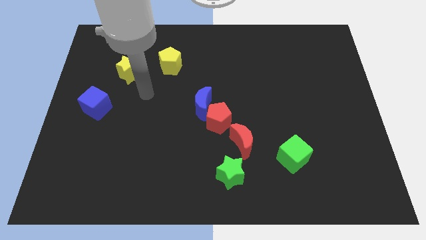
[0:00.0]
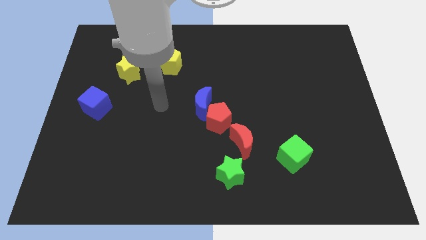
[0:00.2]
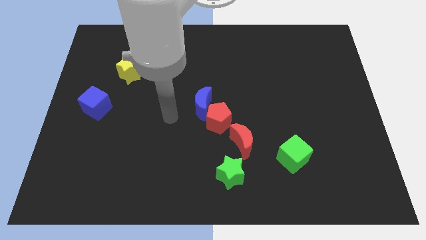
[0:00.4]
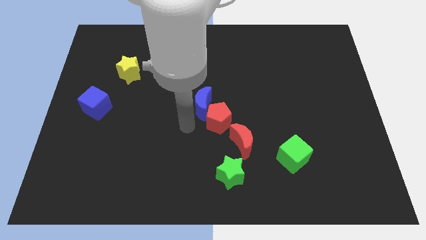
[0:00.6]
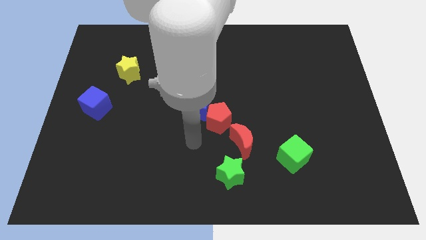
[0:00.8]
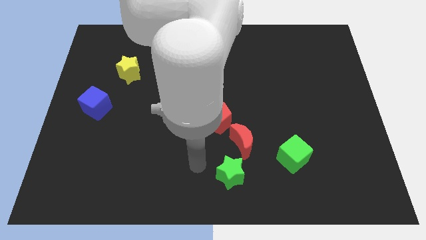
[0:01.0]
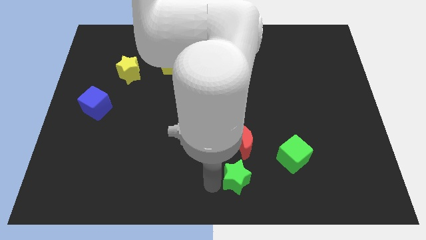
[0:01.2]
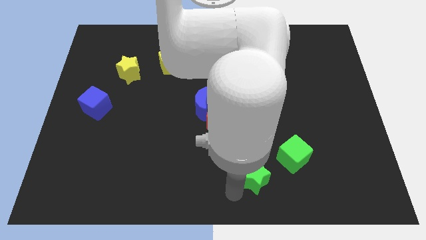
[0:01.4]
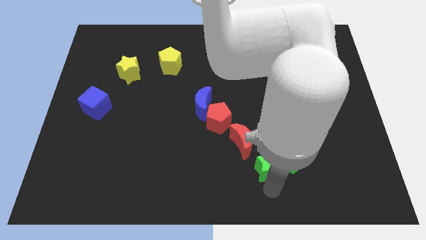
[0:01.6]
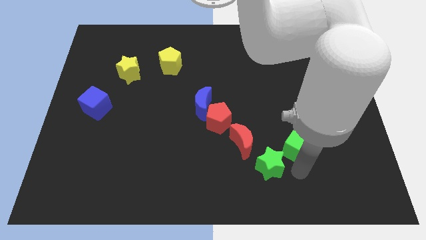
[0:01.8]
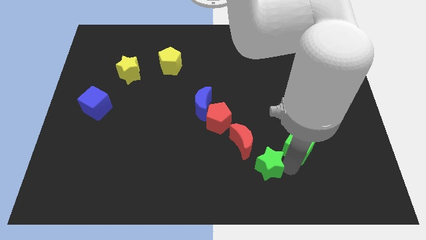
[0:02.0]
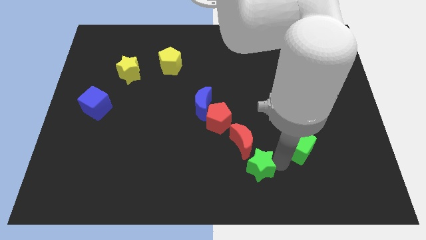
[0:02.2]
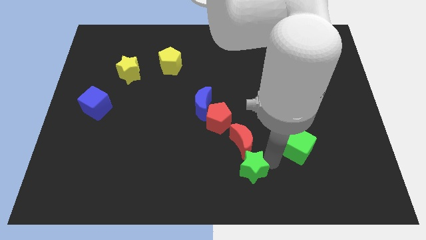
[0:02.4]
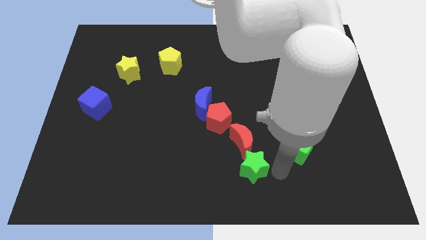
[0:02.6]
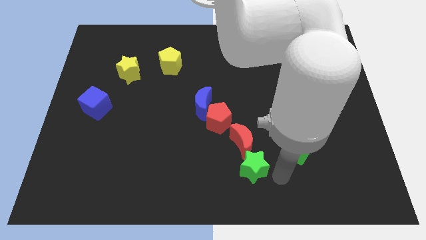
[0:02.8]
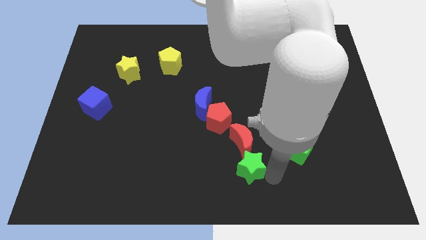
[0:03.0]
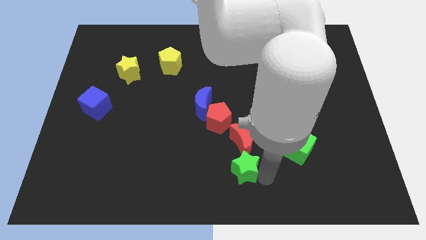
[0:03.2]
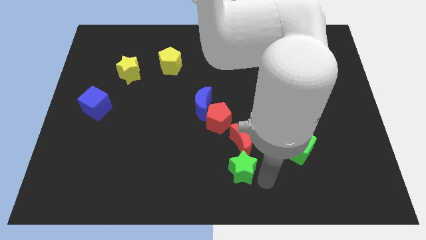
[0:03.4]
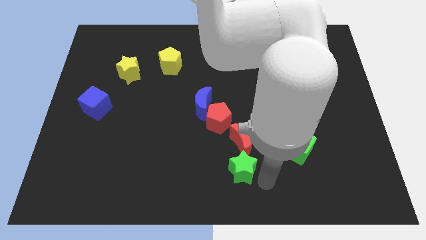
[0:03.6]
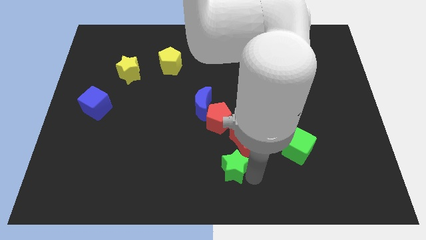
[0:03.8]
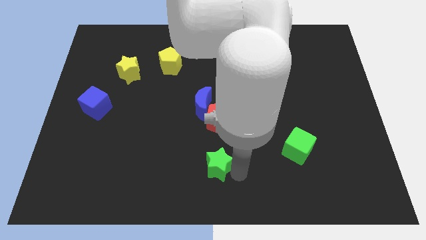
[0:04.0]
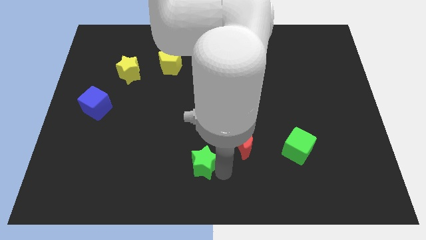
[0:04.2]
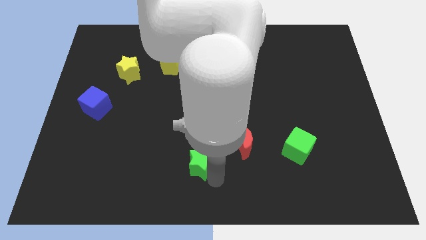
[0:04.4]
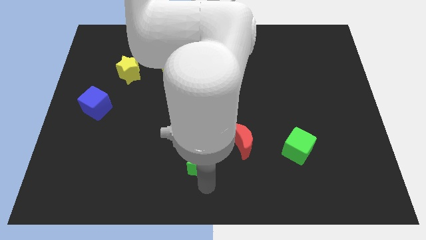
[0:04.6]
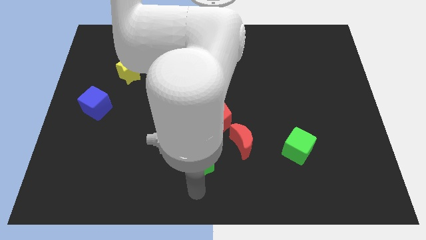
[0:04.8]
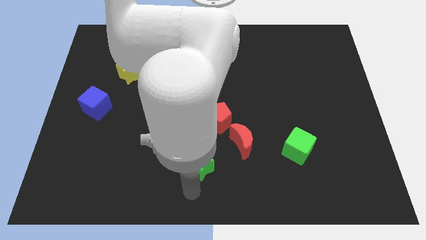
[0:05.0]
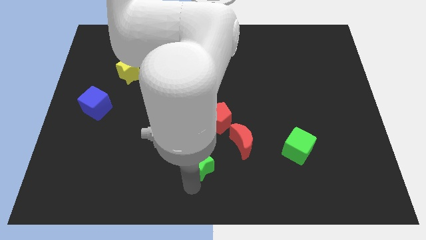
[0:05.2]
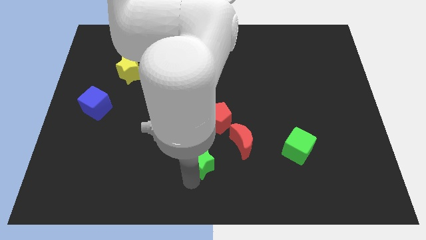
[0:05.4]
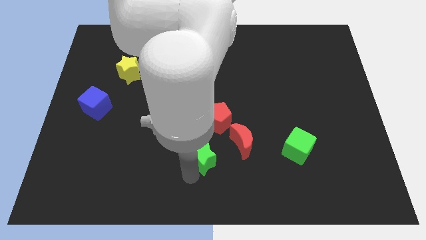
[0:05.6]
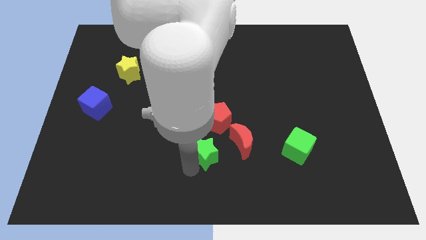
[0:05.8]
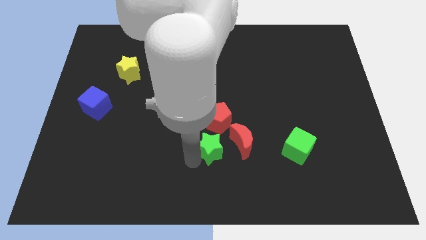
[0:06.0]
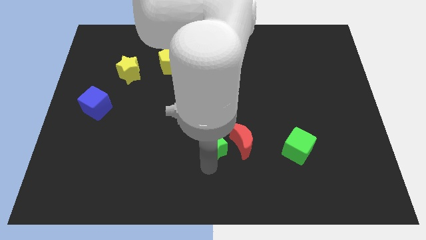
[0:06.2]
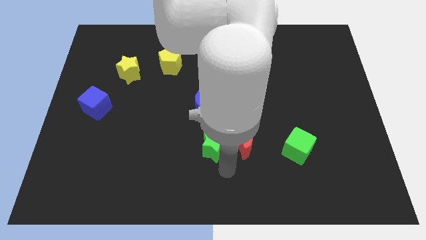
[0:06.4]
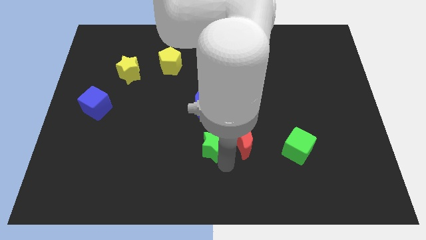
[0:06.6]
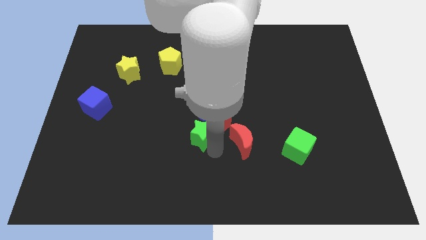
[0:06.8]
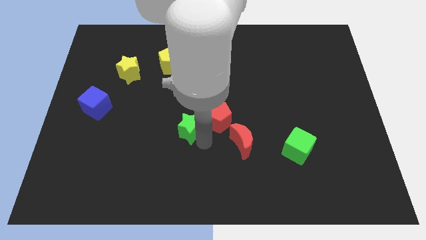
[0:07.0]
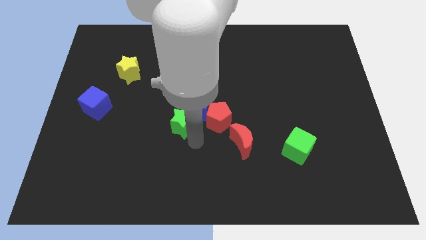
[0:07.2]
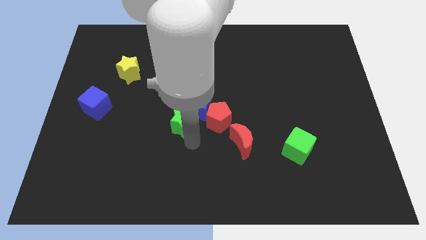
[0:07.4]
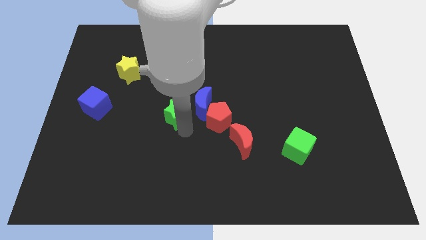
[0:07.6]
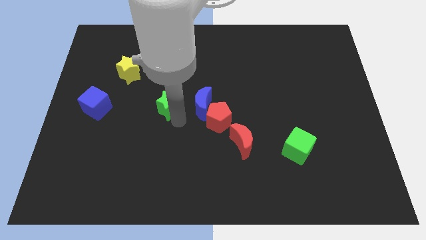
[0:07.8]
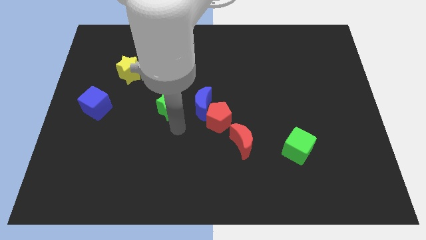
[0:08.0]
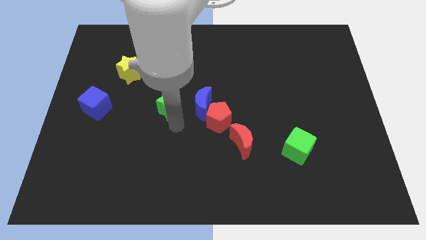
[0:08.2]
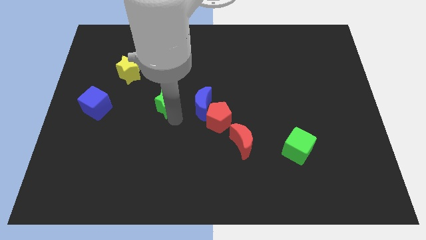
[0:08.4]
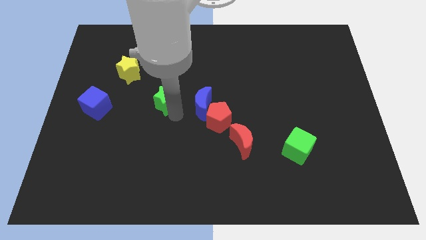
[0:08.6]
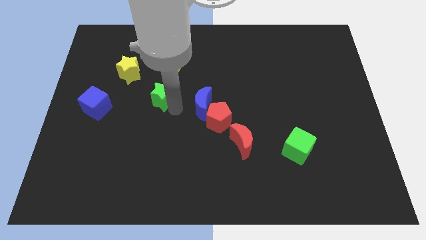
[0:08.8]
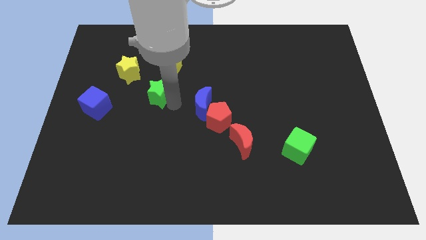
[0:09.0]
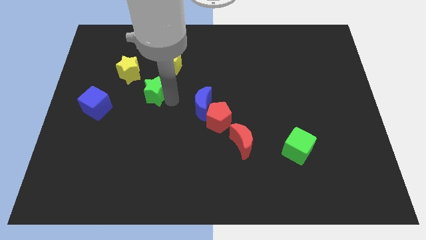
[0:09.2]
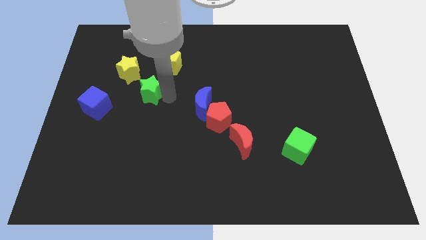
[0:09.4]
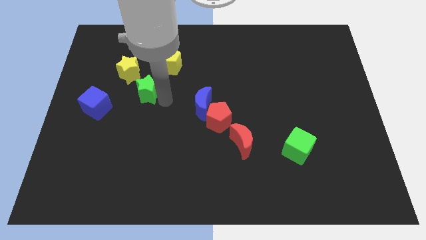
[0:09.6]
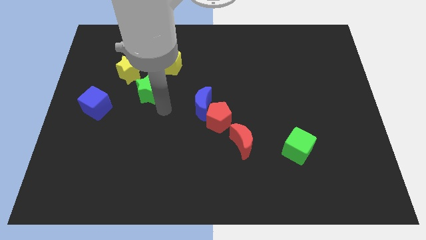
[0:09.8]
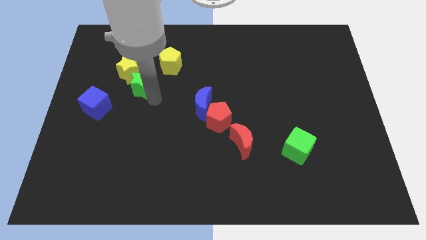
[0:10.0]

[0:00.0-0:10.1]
push the green star towards the yellow star

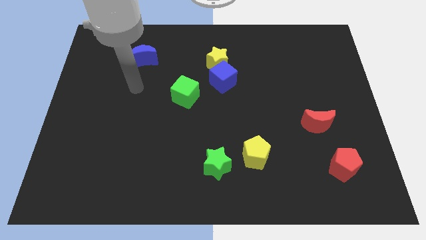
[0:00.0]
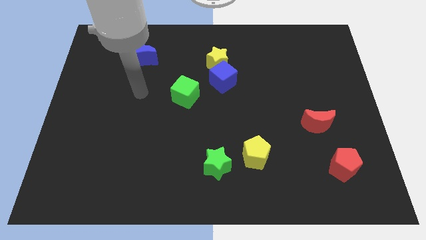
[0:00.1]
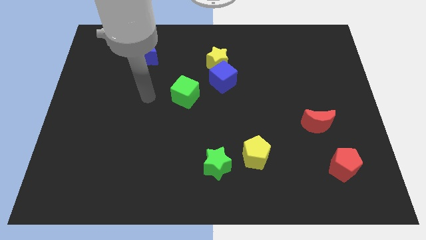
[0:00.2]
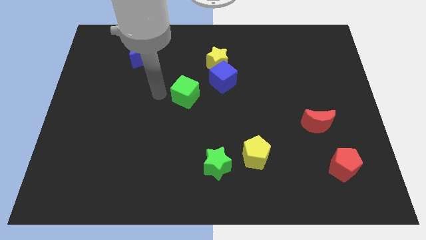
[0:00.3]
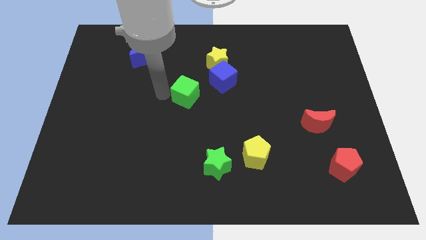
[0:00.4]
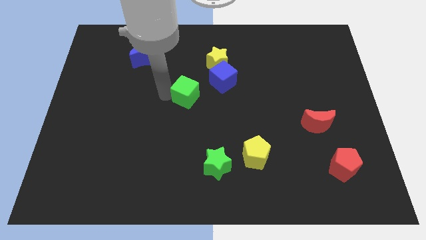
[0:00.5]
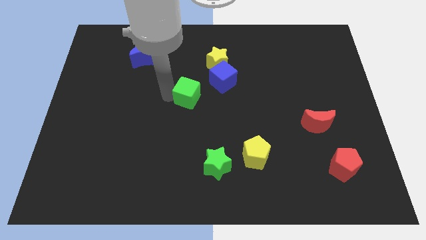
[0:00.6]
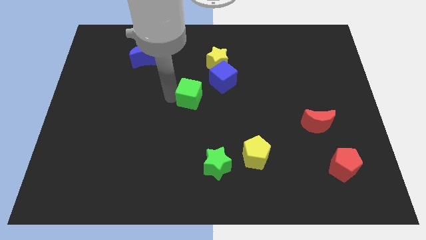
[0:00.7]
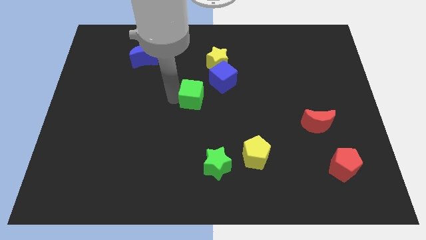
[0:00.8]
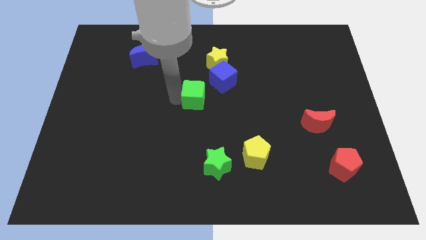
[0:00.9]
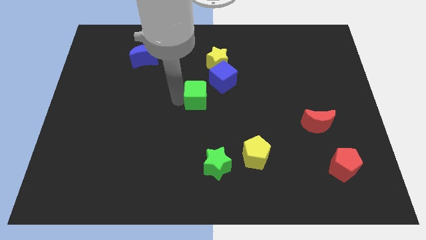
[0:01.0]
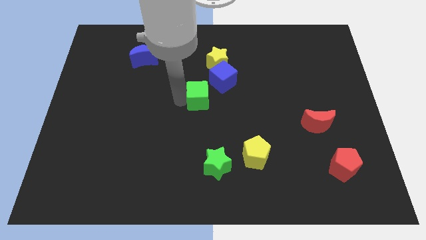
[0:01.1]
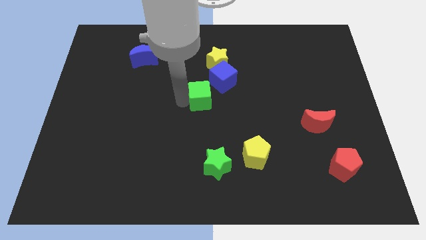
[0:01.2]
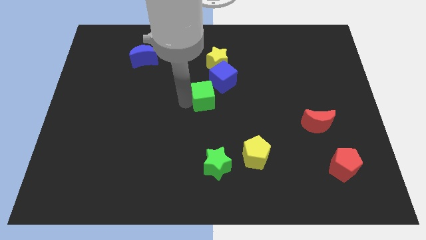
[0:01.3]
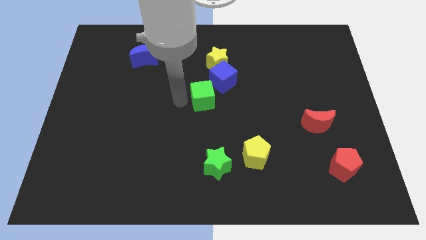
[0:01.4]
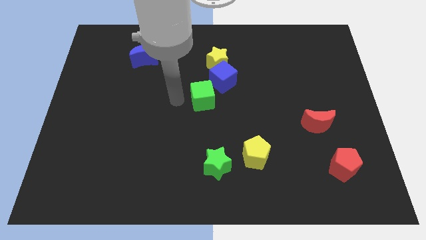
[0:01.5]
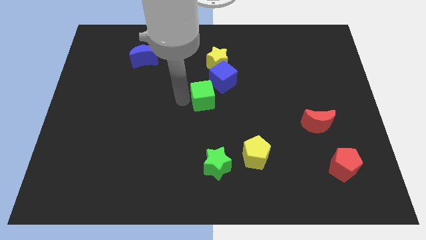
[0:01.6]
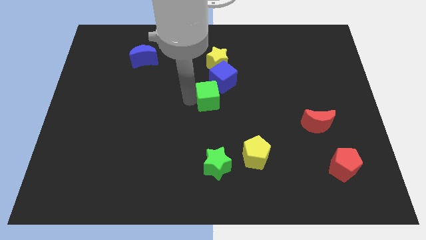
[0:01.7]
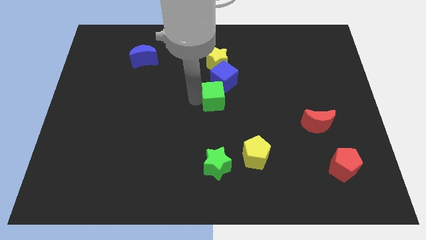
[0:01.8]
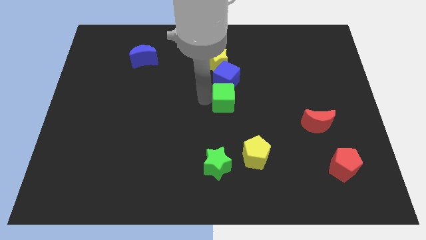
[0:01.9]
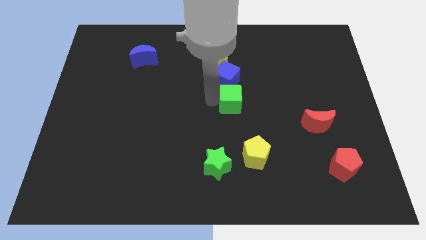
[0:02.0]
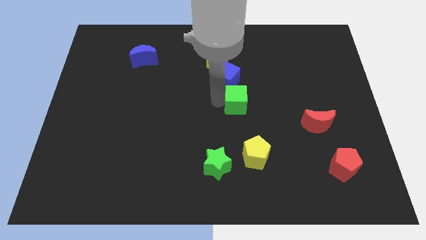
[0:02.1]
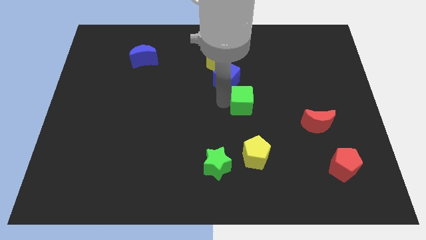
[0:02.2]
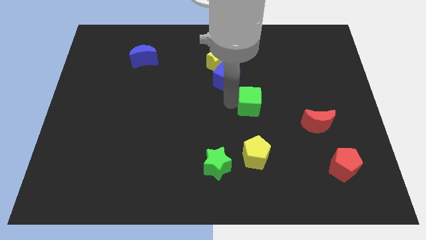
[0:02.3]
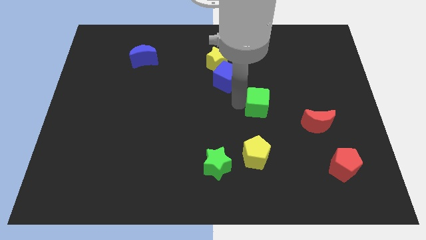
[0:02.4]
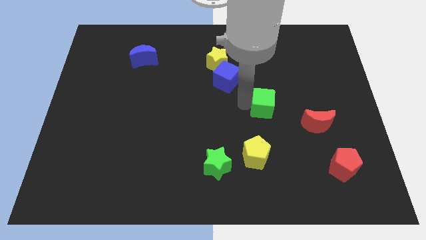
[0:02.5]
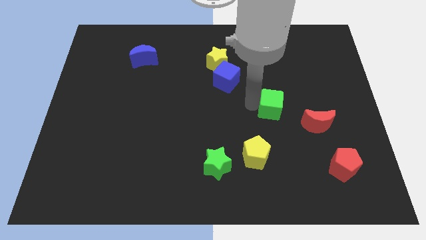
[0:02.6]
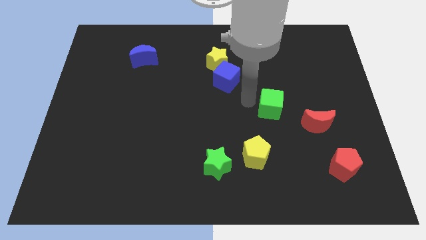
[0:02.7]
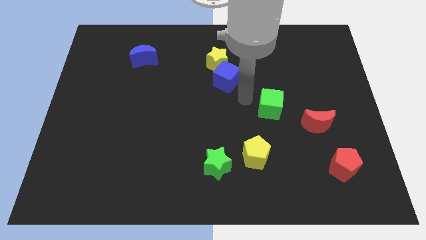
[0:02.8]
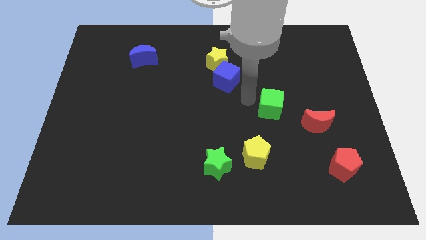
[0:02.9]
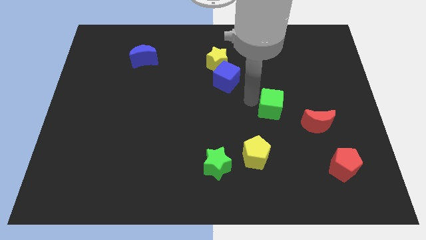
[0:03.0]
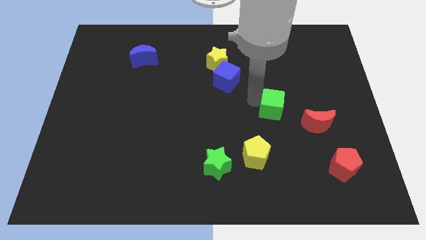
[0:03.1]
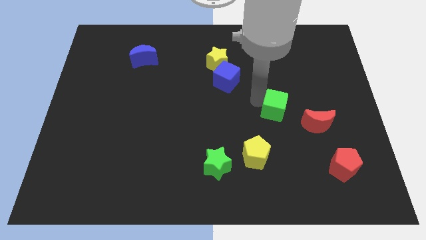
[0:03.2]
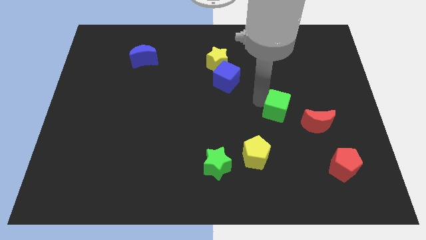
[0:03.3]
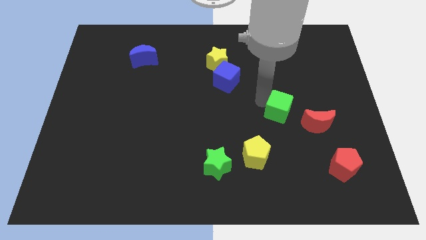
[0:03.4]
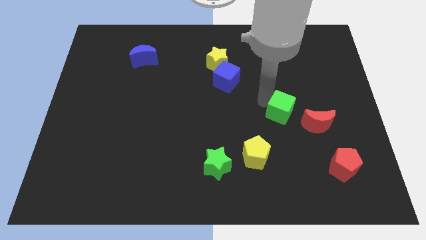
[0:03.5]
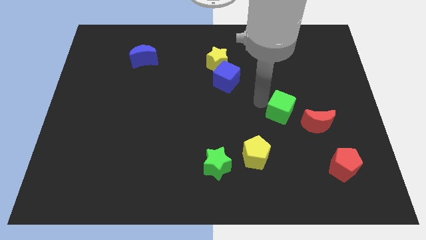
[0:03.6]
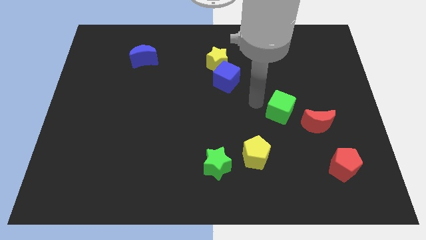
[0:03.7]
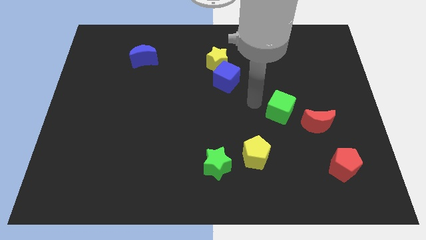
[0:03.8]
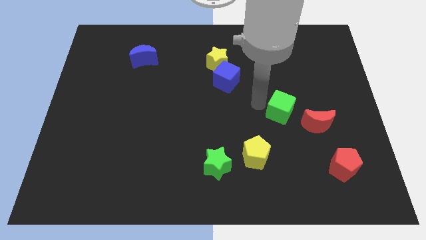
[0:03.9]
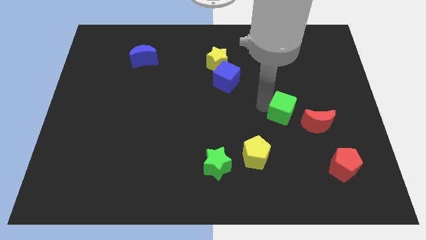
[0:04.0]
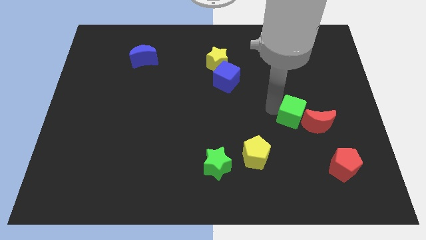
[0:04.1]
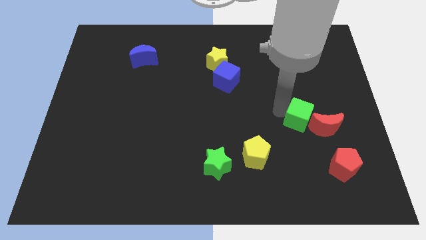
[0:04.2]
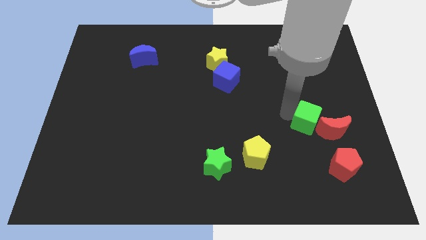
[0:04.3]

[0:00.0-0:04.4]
put the green cube next to the red moon
